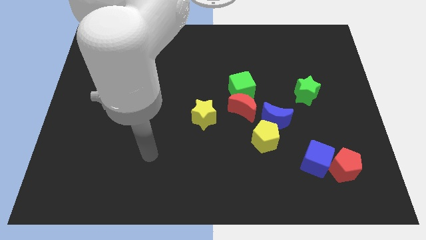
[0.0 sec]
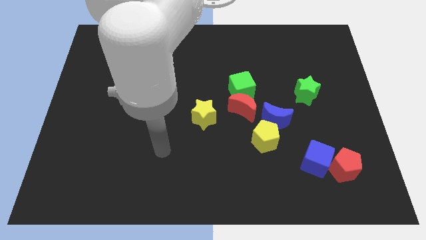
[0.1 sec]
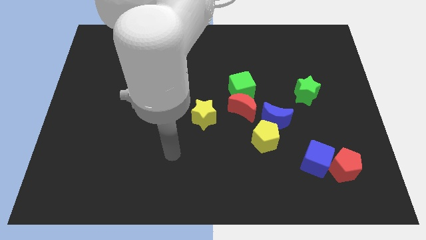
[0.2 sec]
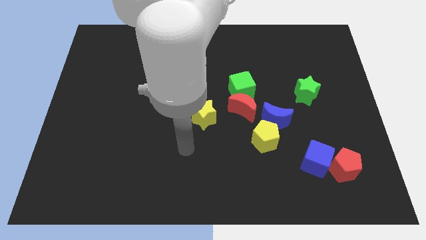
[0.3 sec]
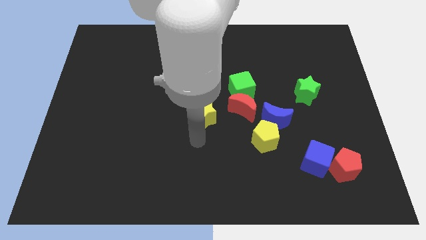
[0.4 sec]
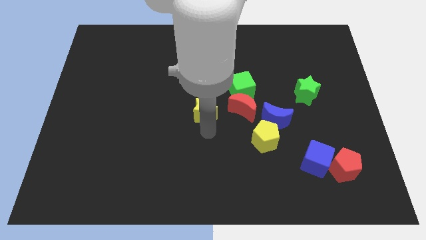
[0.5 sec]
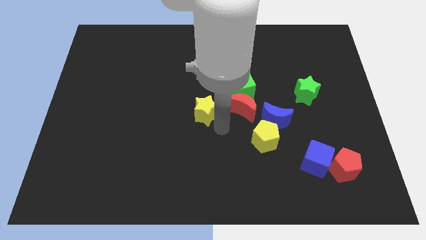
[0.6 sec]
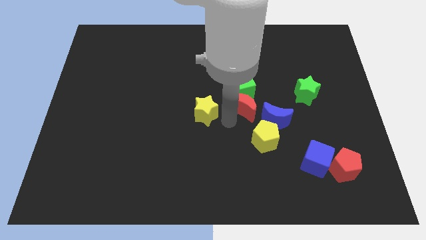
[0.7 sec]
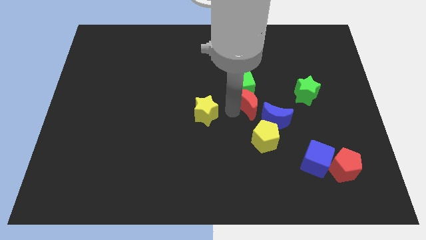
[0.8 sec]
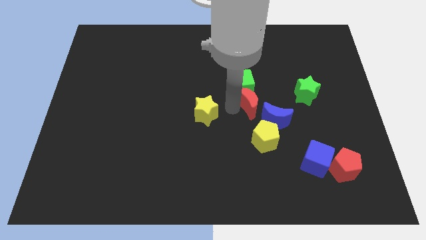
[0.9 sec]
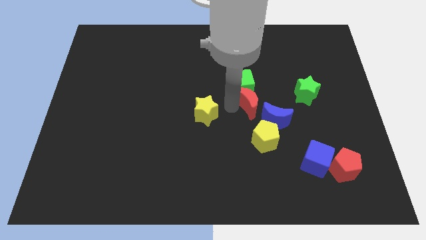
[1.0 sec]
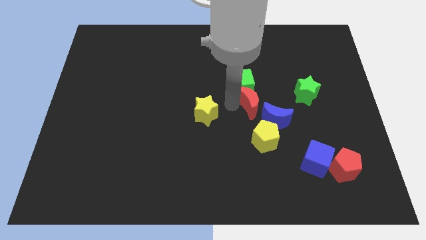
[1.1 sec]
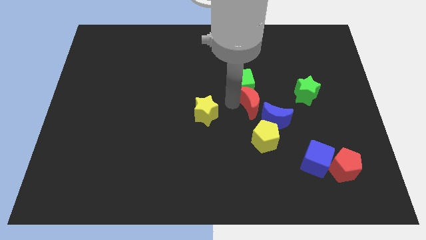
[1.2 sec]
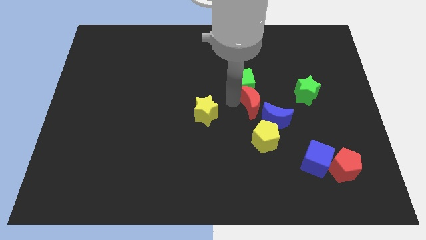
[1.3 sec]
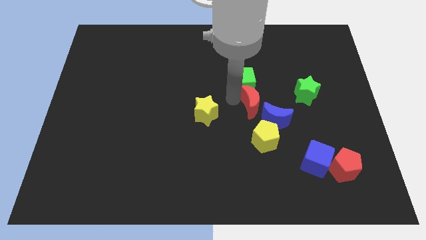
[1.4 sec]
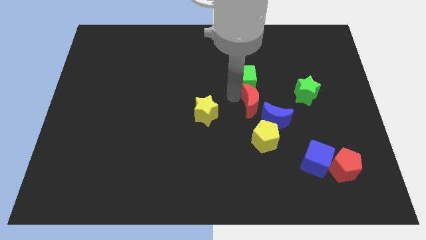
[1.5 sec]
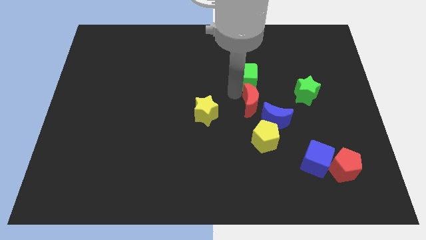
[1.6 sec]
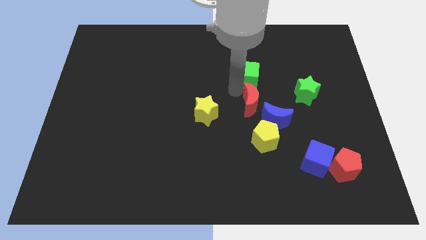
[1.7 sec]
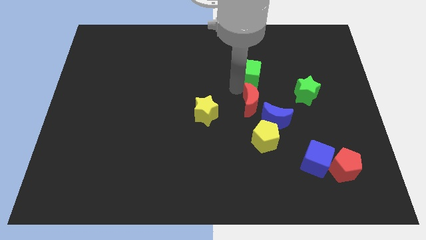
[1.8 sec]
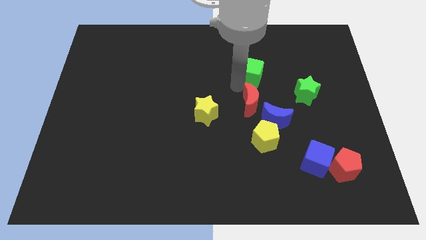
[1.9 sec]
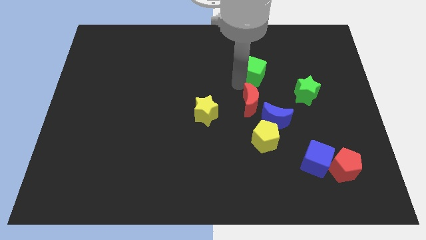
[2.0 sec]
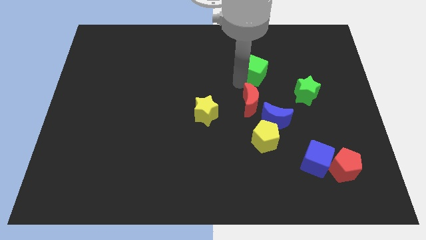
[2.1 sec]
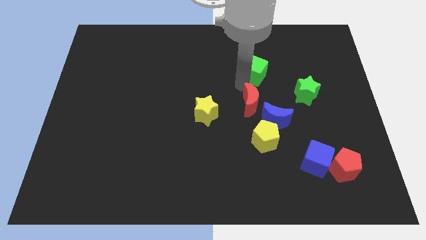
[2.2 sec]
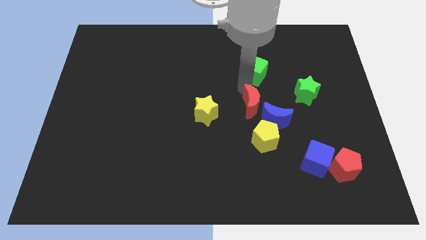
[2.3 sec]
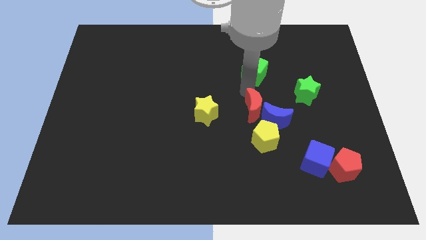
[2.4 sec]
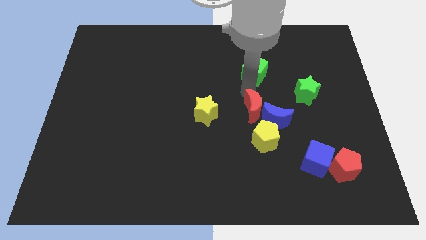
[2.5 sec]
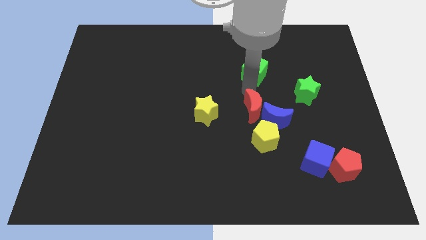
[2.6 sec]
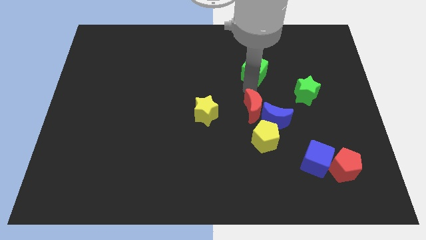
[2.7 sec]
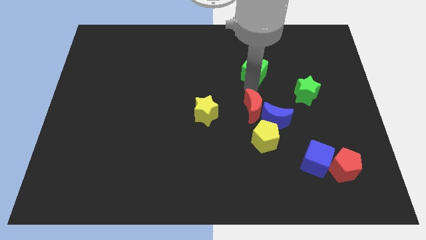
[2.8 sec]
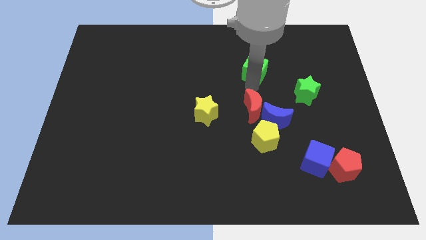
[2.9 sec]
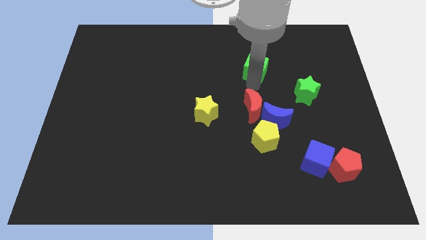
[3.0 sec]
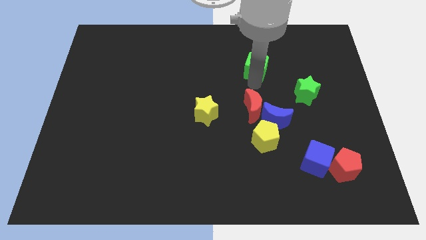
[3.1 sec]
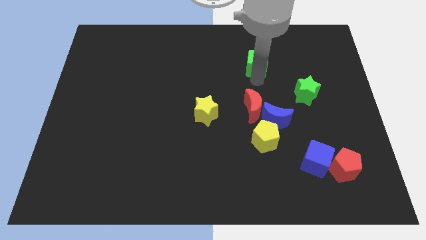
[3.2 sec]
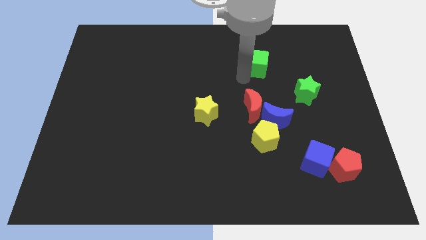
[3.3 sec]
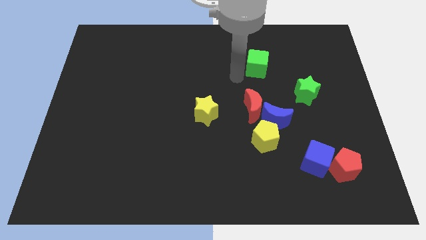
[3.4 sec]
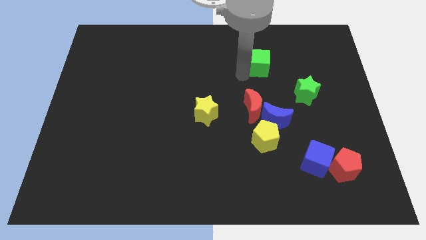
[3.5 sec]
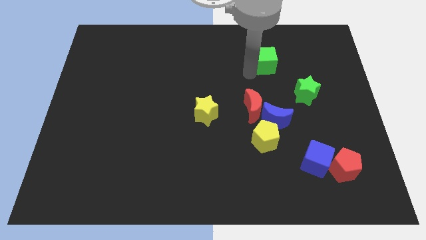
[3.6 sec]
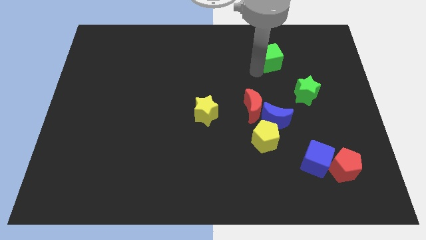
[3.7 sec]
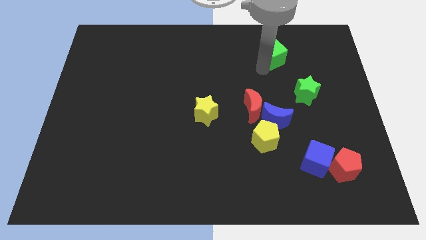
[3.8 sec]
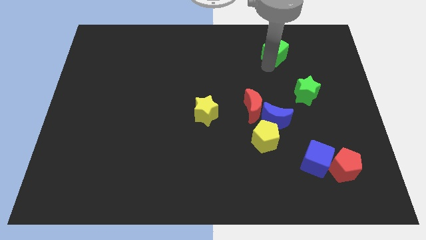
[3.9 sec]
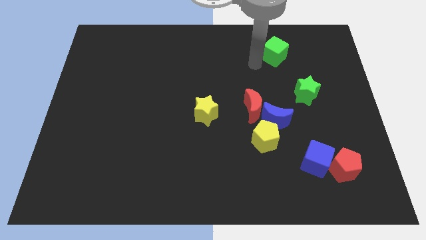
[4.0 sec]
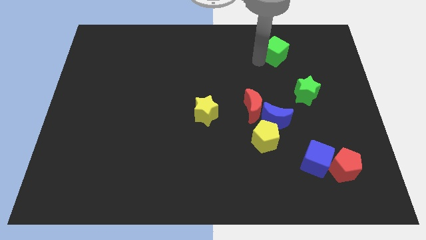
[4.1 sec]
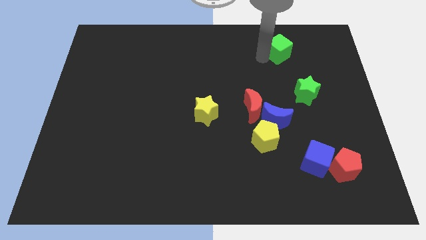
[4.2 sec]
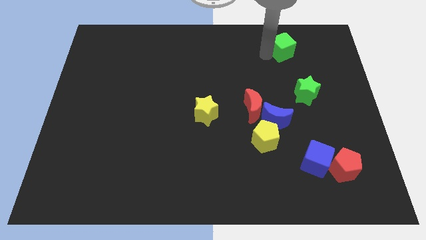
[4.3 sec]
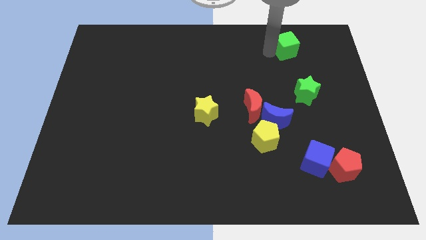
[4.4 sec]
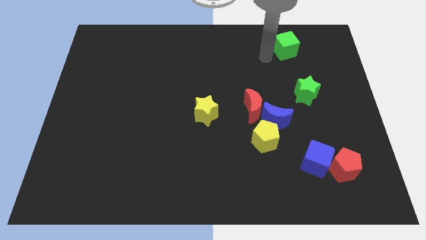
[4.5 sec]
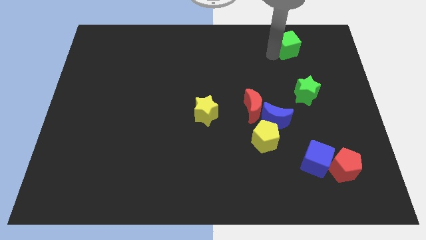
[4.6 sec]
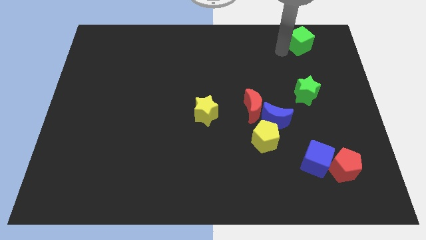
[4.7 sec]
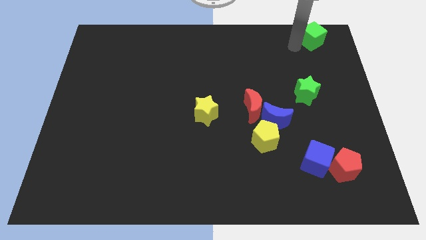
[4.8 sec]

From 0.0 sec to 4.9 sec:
move the green cube to the top right of the board

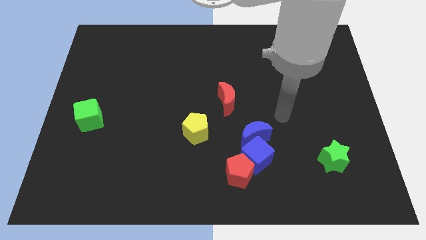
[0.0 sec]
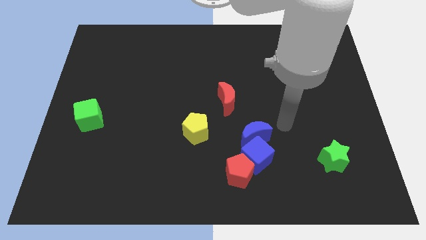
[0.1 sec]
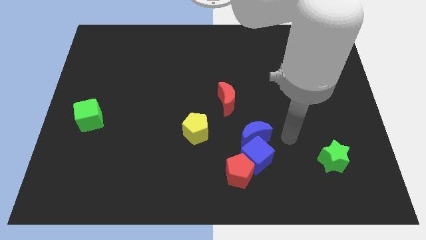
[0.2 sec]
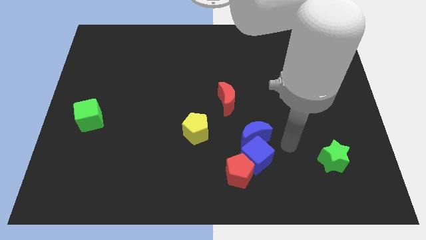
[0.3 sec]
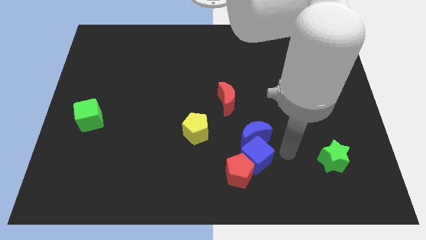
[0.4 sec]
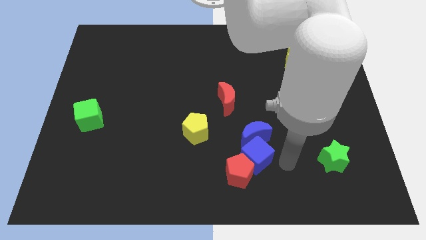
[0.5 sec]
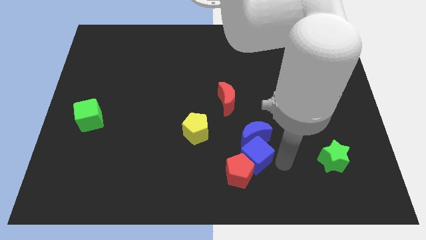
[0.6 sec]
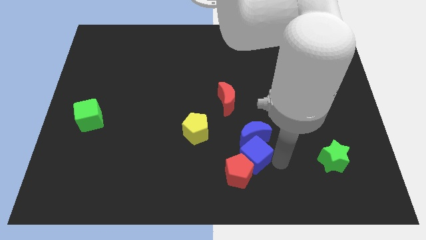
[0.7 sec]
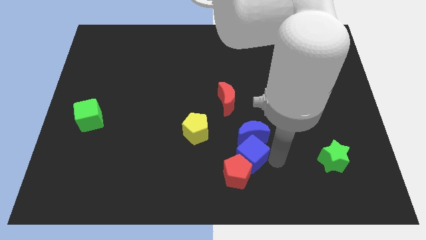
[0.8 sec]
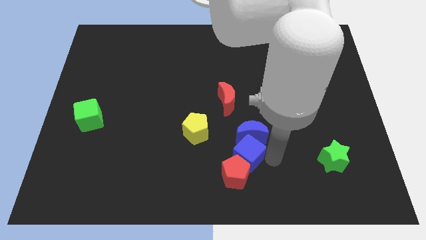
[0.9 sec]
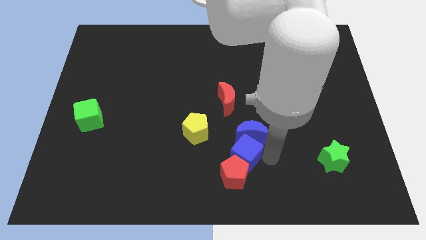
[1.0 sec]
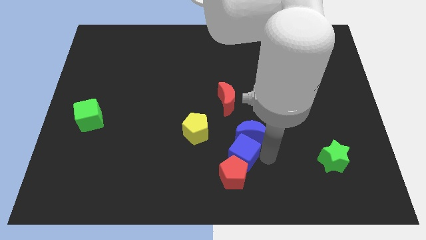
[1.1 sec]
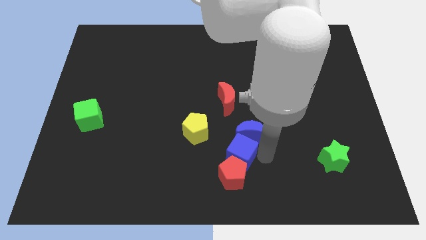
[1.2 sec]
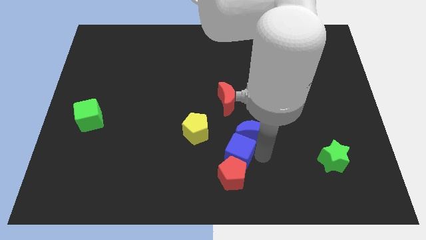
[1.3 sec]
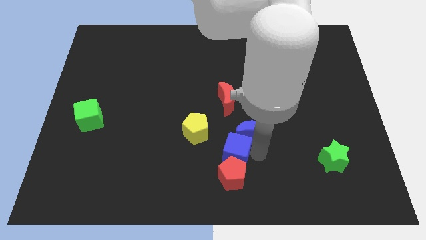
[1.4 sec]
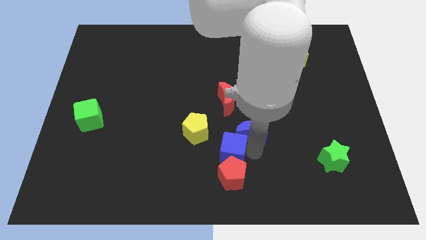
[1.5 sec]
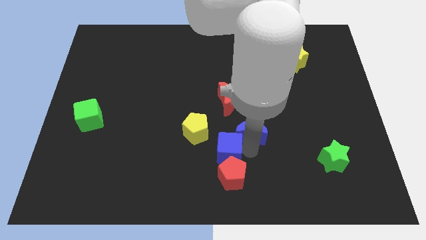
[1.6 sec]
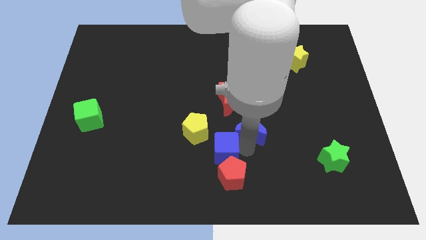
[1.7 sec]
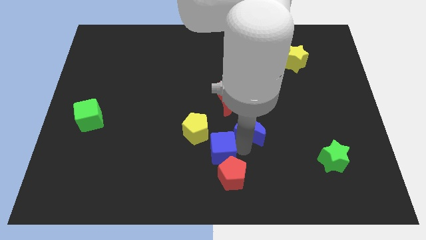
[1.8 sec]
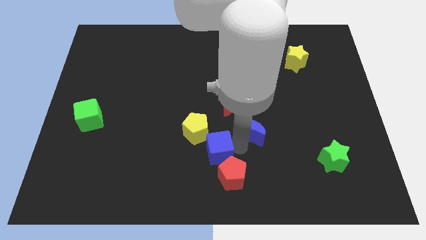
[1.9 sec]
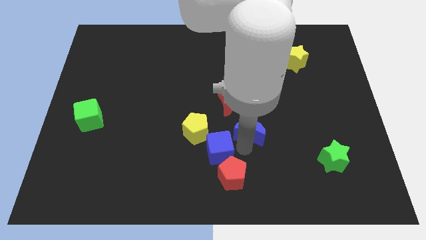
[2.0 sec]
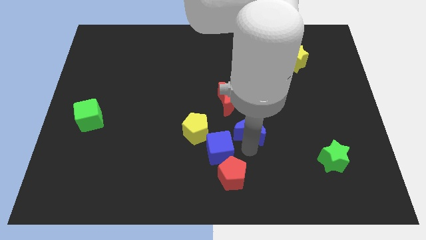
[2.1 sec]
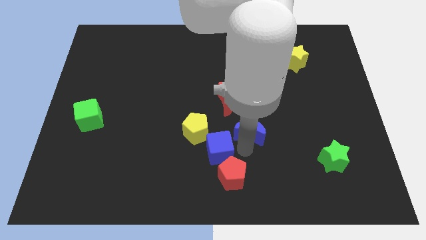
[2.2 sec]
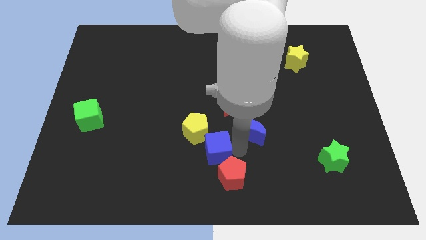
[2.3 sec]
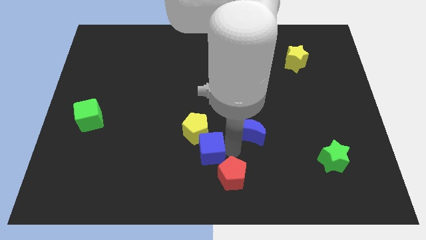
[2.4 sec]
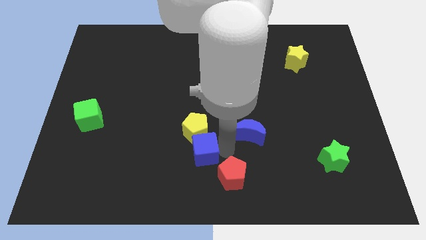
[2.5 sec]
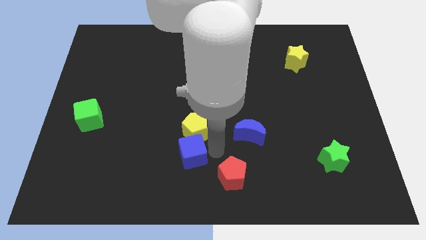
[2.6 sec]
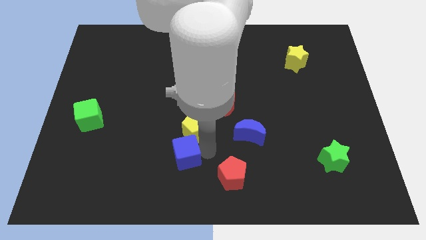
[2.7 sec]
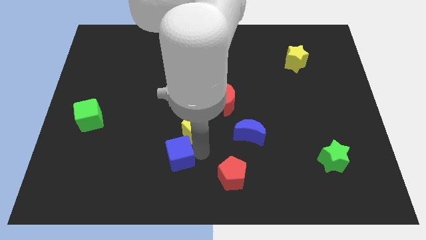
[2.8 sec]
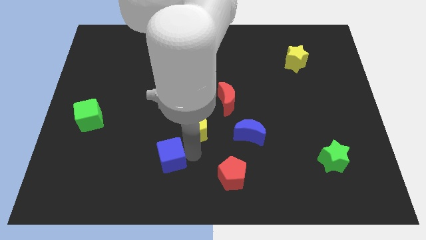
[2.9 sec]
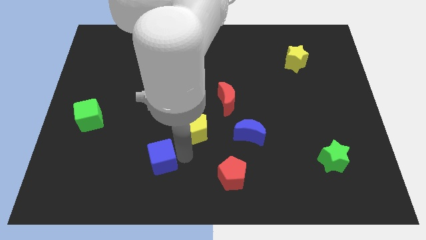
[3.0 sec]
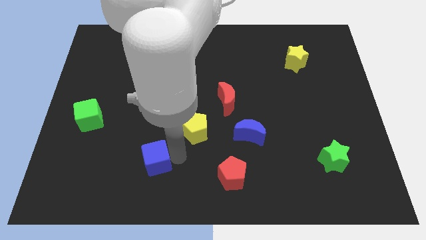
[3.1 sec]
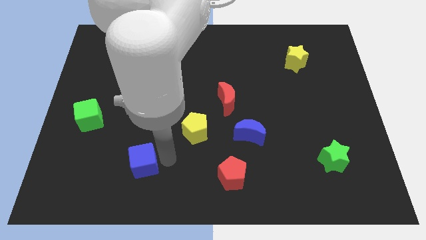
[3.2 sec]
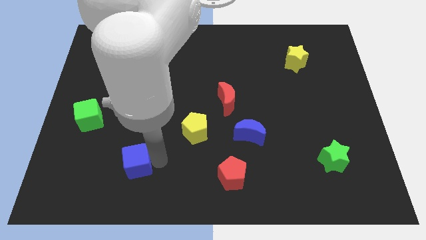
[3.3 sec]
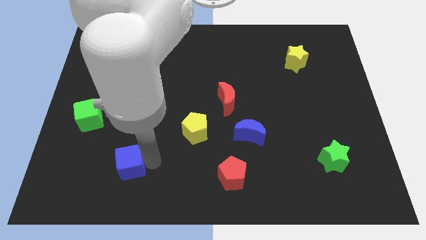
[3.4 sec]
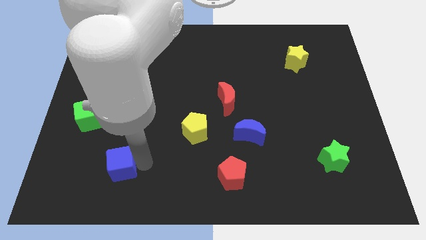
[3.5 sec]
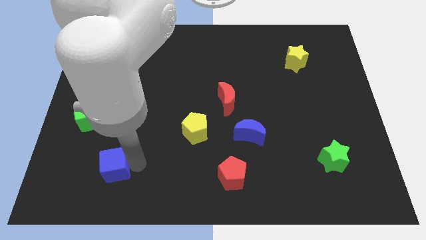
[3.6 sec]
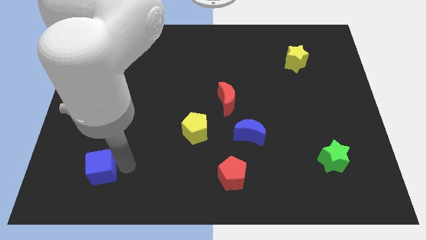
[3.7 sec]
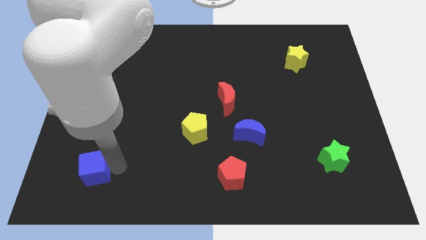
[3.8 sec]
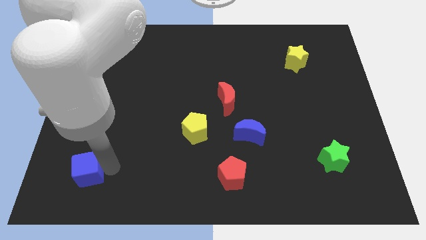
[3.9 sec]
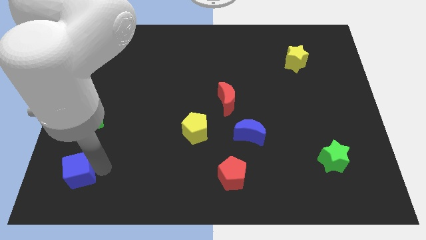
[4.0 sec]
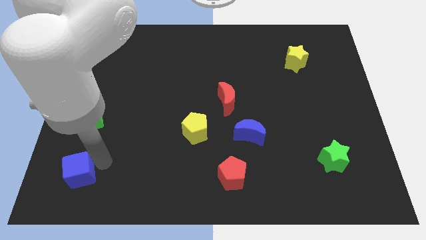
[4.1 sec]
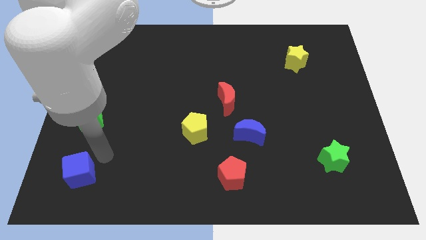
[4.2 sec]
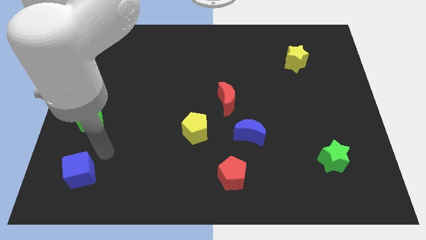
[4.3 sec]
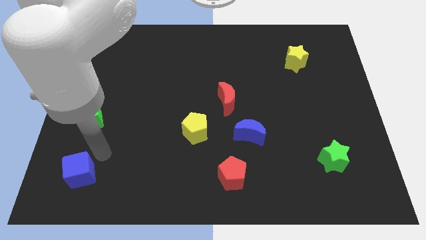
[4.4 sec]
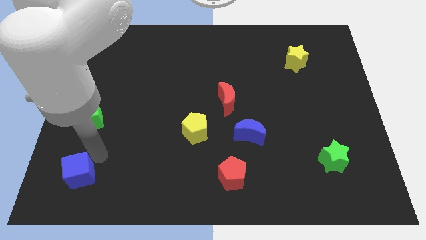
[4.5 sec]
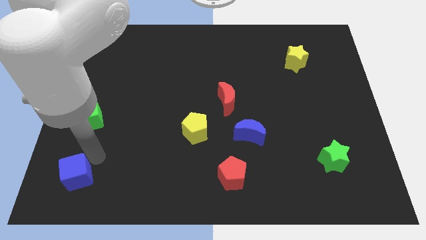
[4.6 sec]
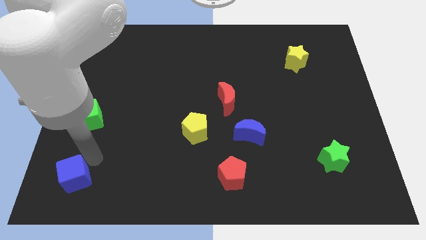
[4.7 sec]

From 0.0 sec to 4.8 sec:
put the blue cube to the bottom left corner
